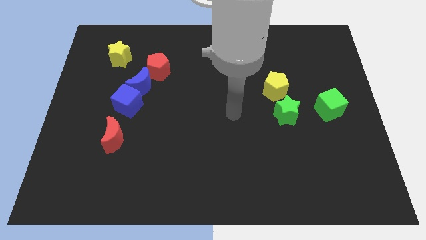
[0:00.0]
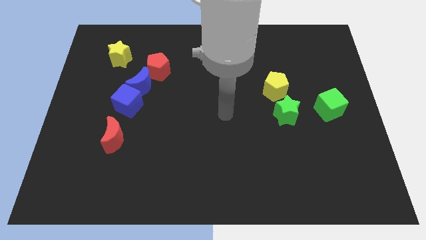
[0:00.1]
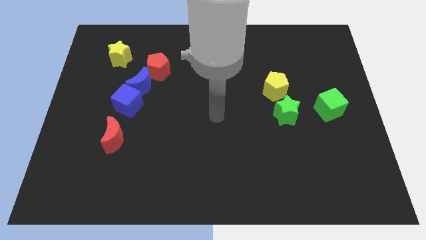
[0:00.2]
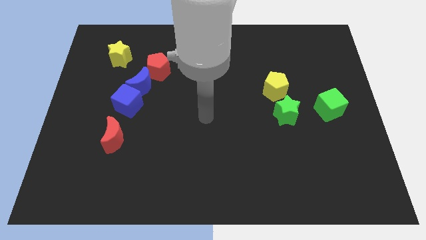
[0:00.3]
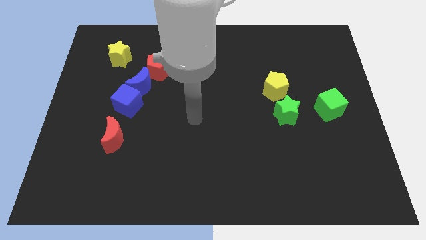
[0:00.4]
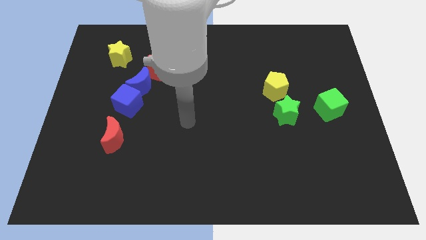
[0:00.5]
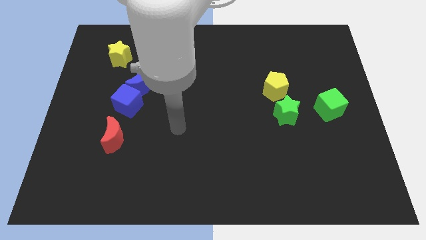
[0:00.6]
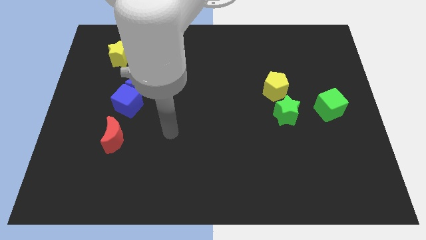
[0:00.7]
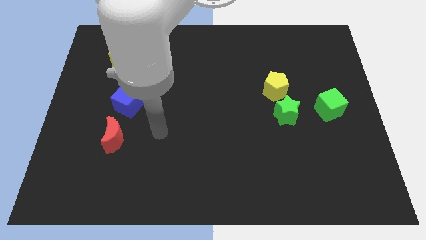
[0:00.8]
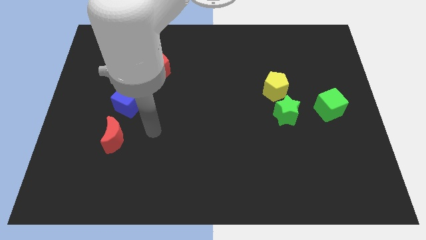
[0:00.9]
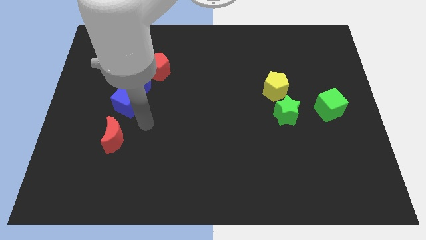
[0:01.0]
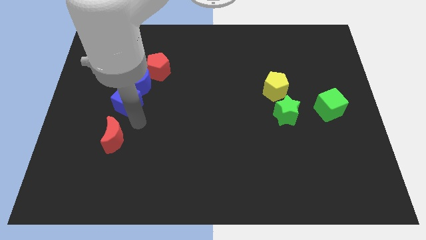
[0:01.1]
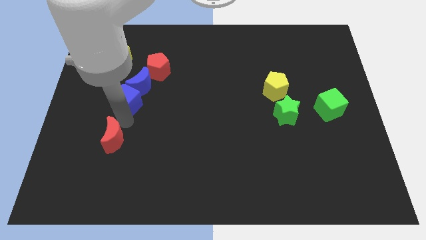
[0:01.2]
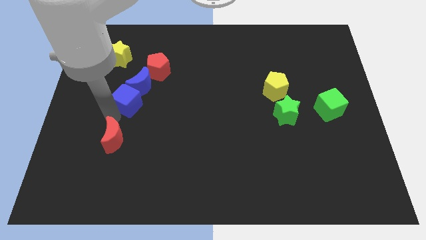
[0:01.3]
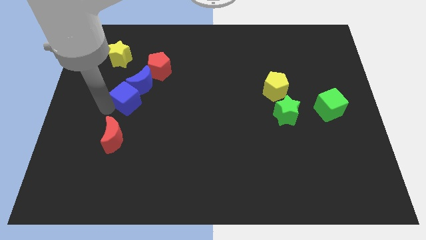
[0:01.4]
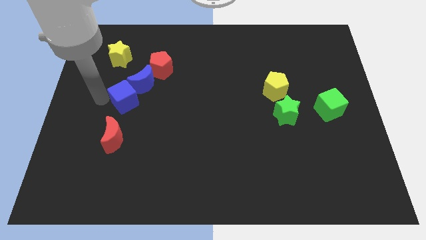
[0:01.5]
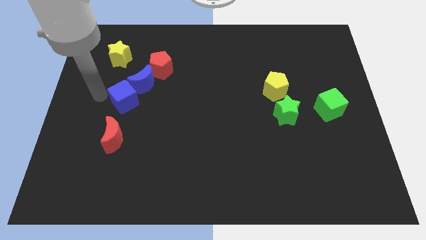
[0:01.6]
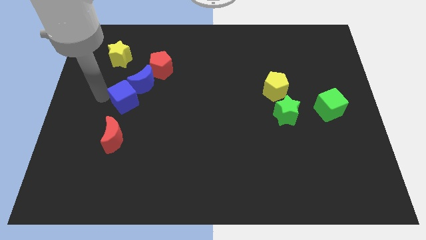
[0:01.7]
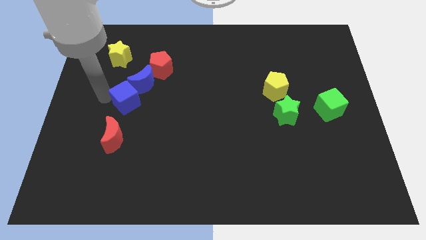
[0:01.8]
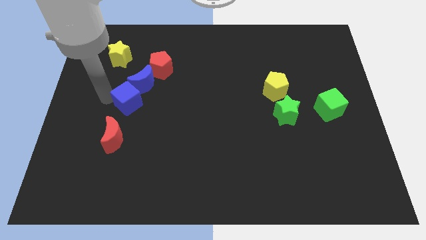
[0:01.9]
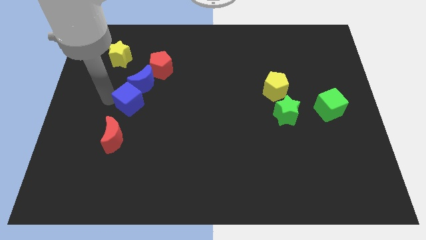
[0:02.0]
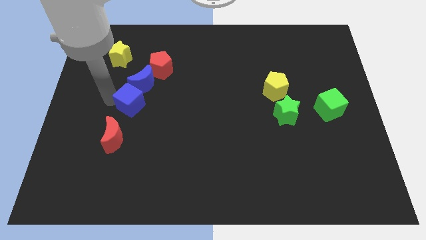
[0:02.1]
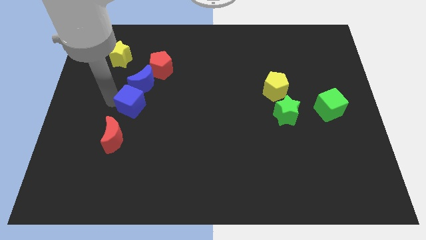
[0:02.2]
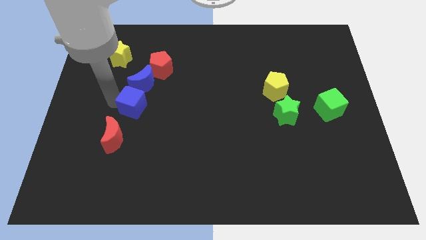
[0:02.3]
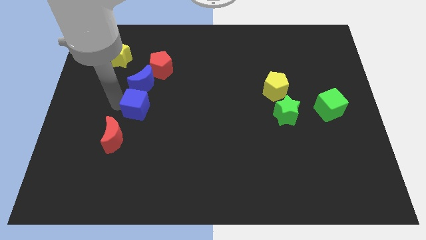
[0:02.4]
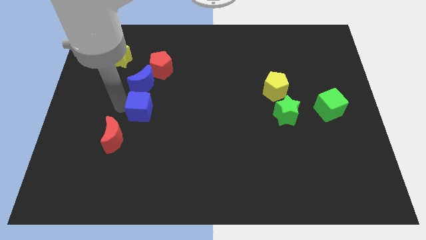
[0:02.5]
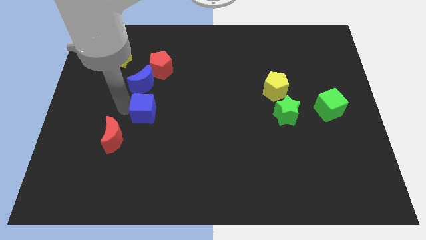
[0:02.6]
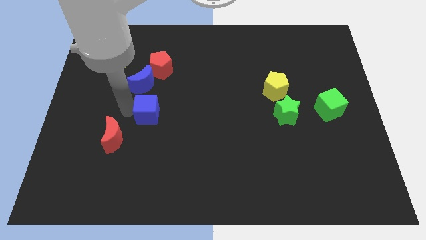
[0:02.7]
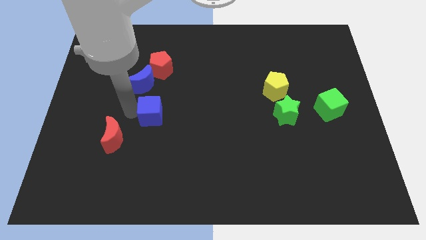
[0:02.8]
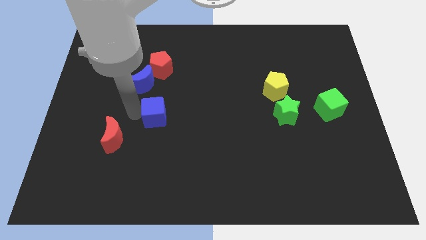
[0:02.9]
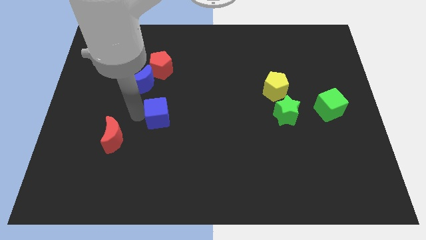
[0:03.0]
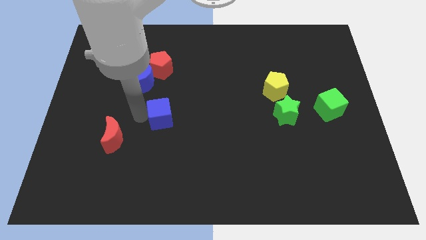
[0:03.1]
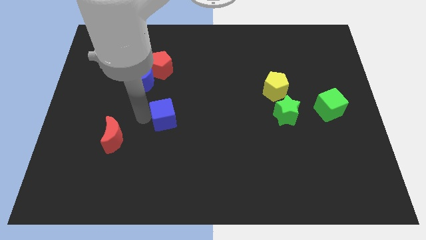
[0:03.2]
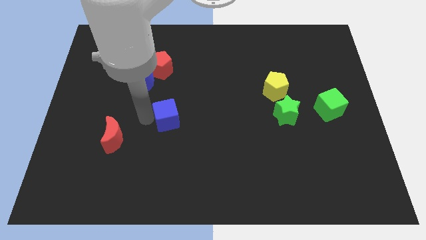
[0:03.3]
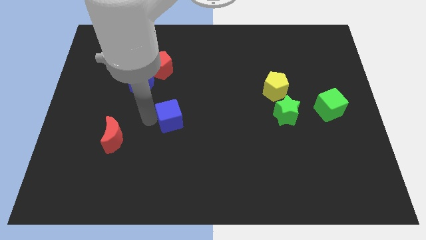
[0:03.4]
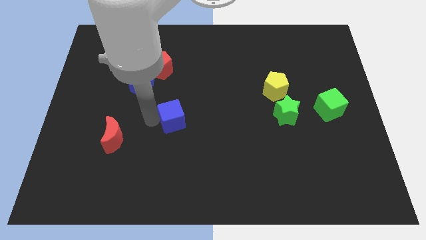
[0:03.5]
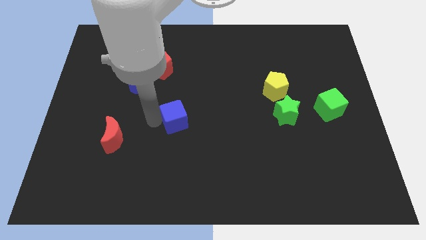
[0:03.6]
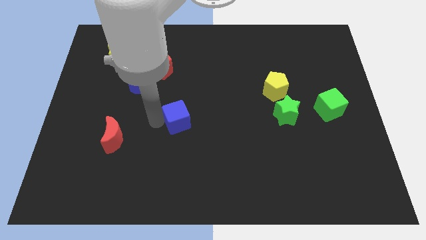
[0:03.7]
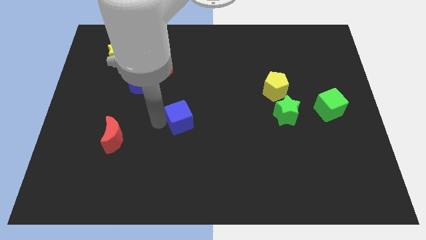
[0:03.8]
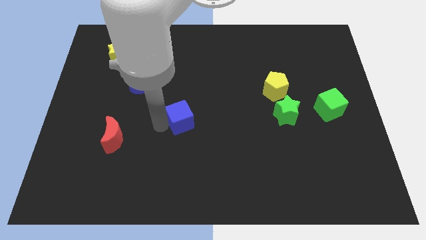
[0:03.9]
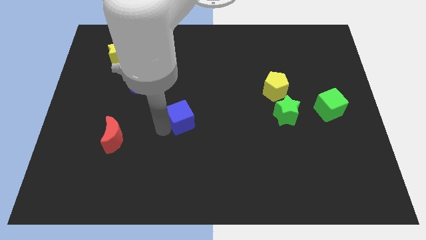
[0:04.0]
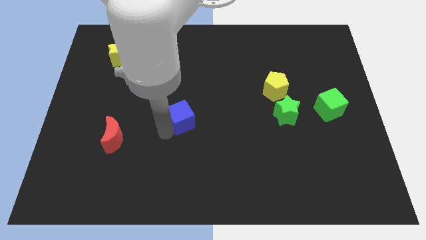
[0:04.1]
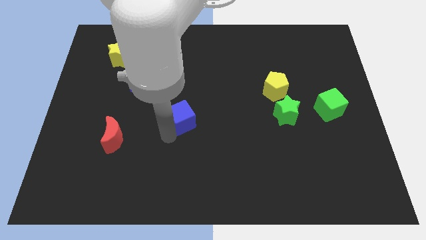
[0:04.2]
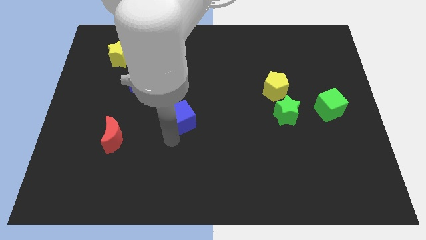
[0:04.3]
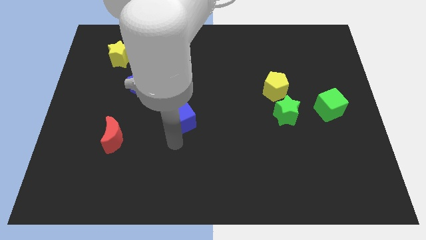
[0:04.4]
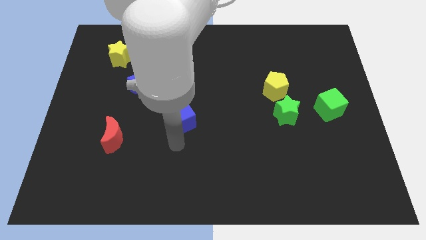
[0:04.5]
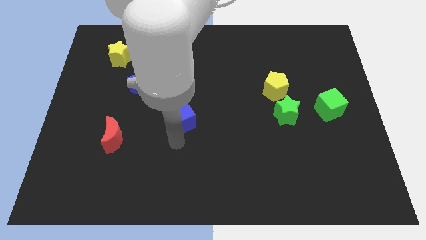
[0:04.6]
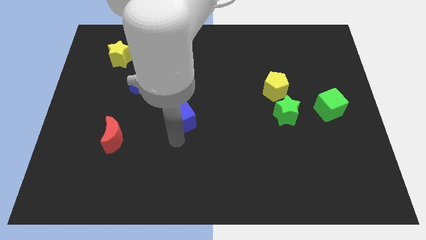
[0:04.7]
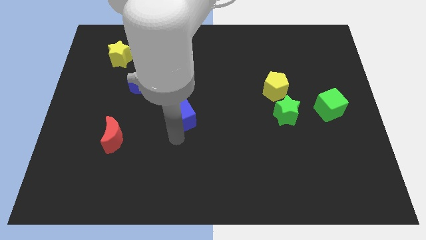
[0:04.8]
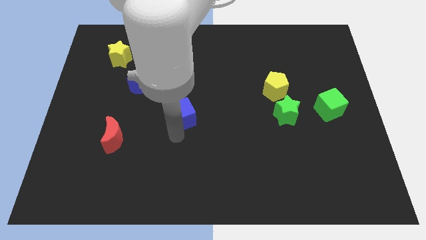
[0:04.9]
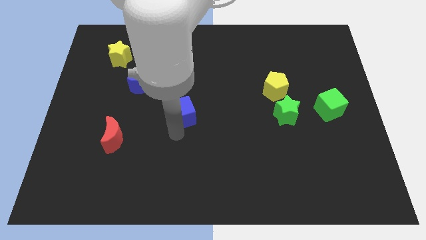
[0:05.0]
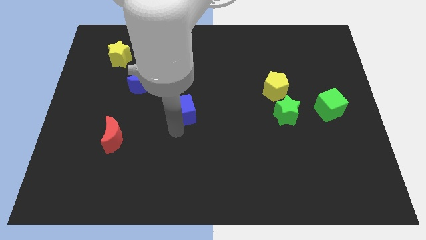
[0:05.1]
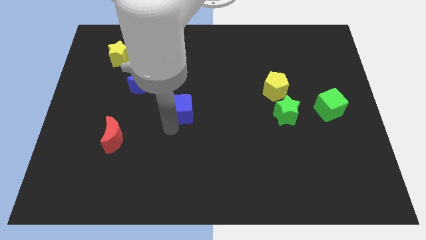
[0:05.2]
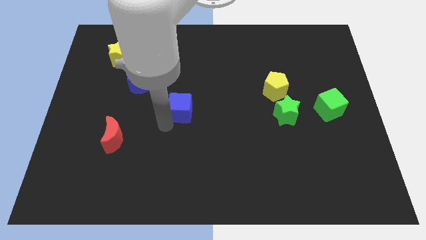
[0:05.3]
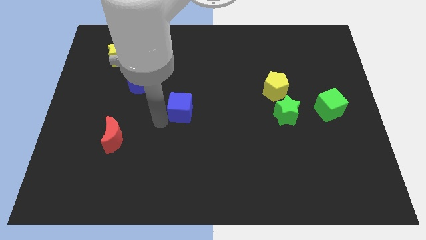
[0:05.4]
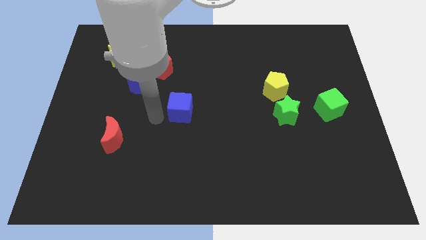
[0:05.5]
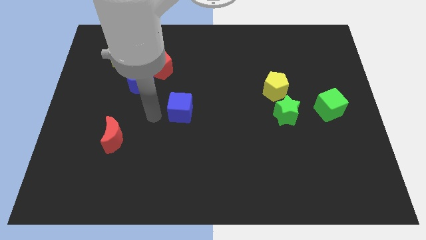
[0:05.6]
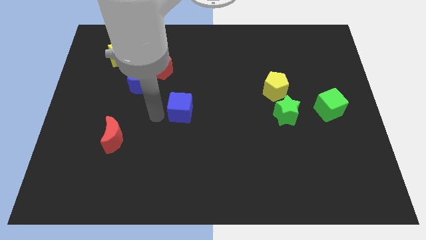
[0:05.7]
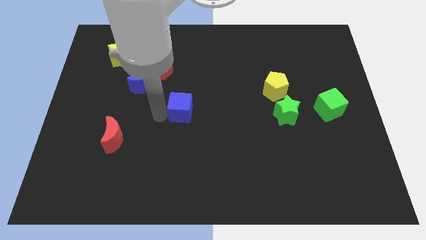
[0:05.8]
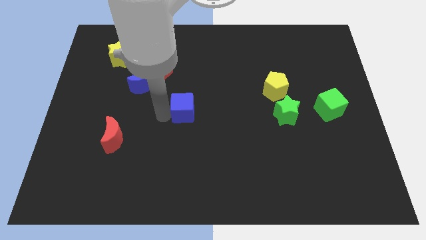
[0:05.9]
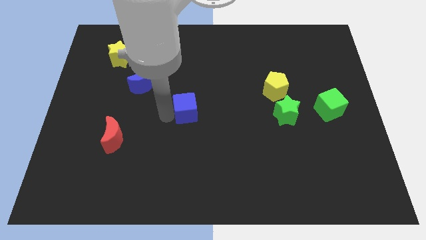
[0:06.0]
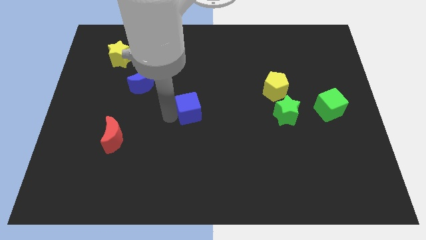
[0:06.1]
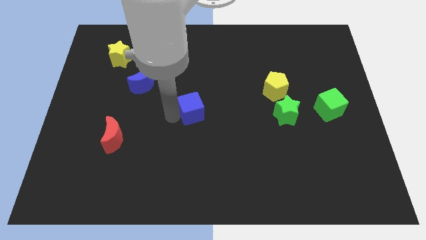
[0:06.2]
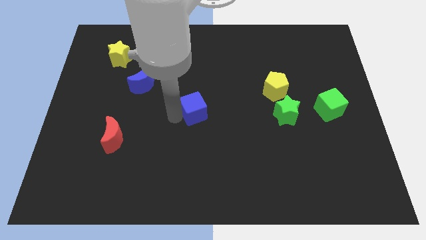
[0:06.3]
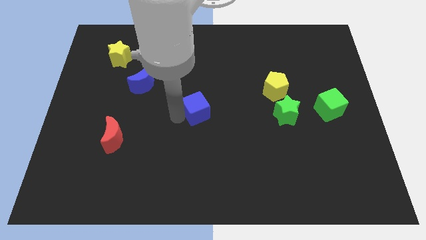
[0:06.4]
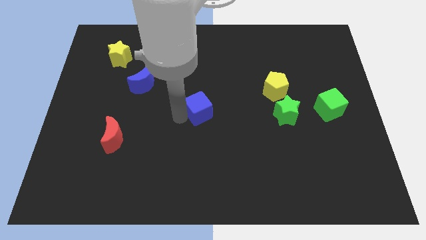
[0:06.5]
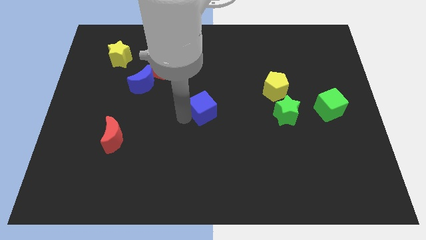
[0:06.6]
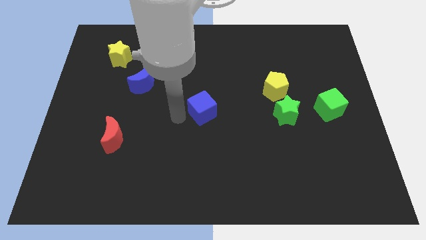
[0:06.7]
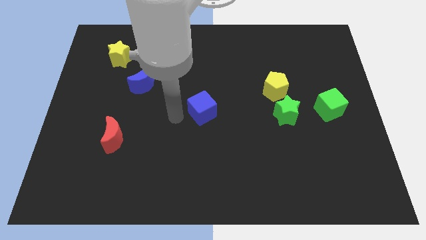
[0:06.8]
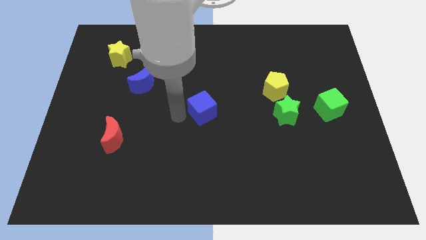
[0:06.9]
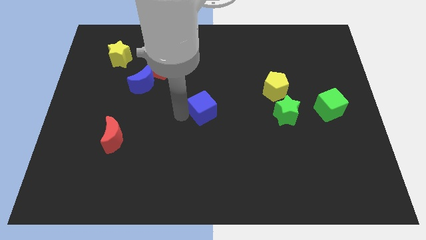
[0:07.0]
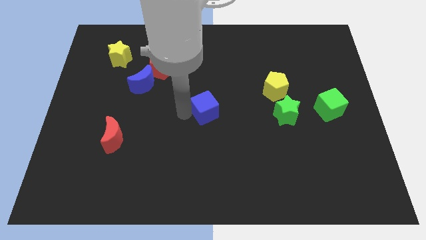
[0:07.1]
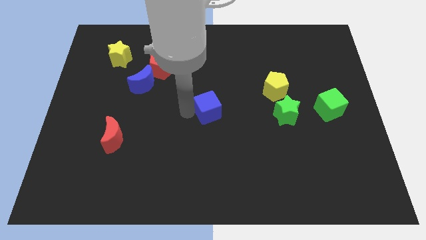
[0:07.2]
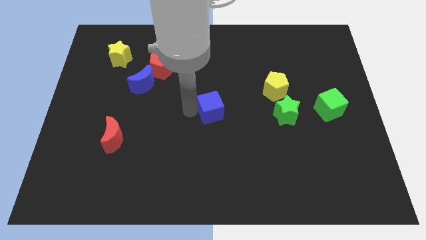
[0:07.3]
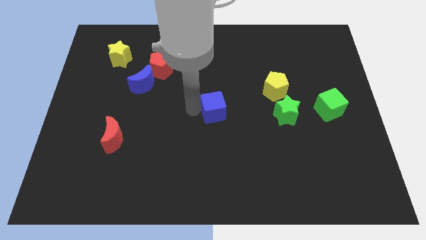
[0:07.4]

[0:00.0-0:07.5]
push the blue cube to the right

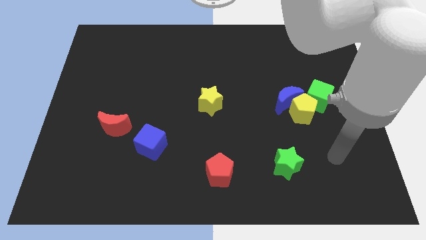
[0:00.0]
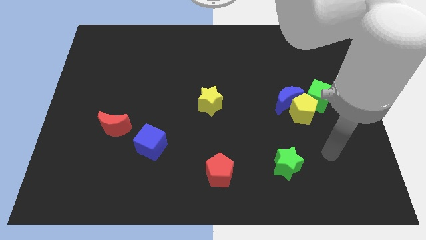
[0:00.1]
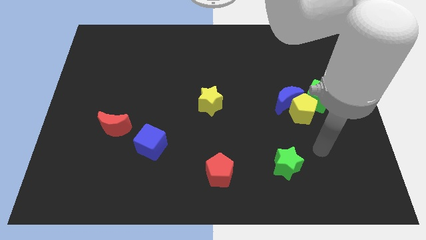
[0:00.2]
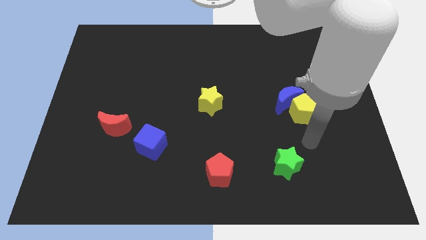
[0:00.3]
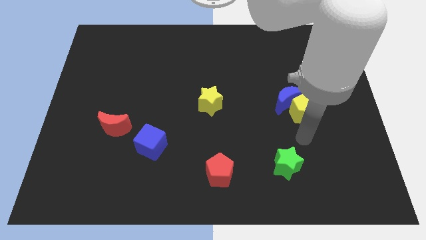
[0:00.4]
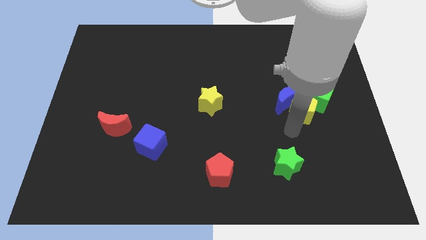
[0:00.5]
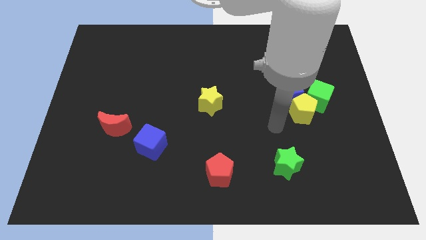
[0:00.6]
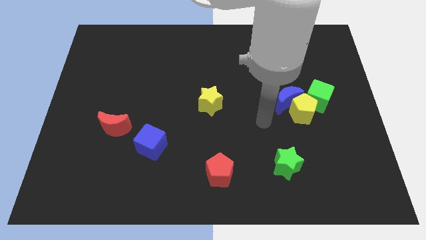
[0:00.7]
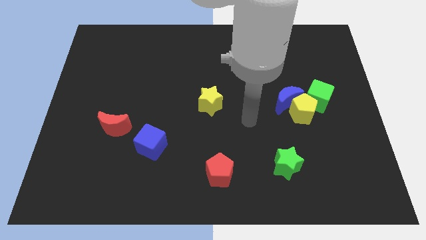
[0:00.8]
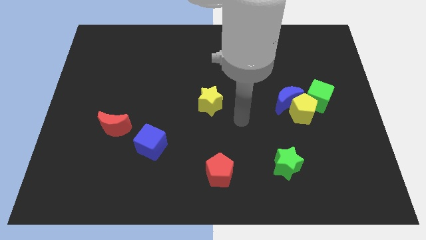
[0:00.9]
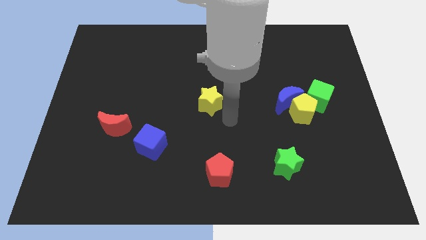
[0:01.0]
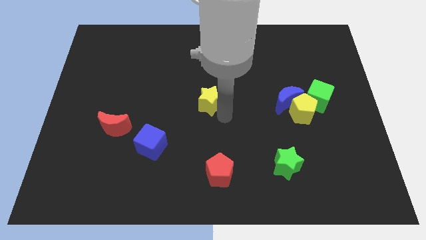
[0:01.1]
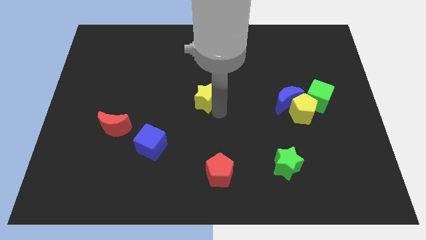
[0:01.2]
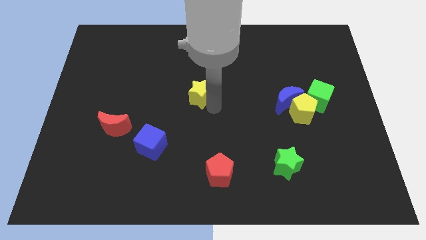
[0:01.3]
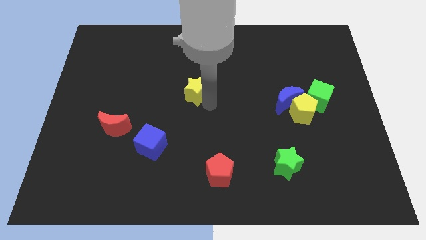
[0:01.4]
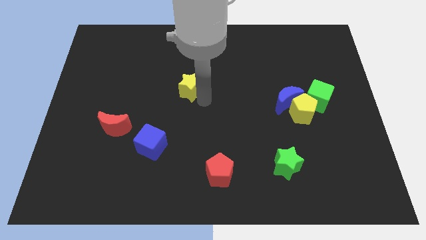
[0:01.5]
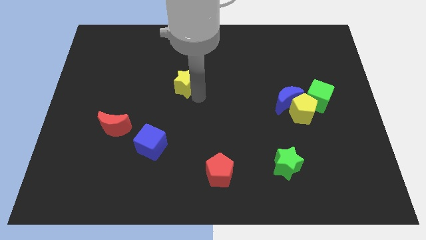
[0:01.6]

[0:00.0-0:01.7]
push the yellow star upwards and then left slightly
